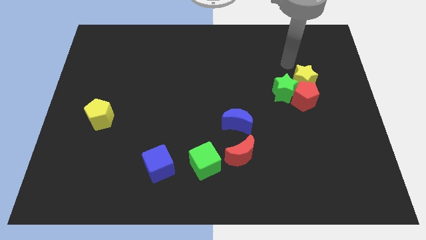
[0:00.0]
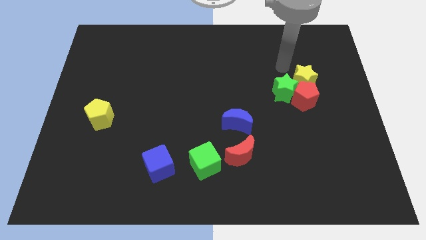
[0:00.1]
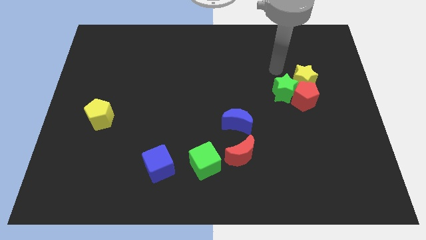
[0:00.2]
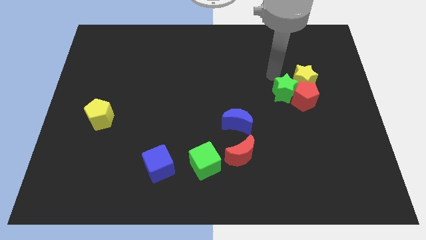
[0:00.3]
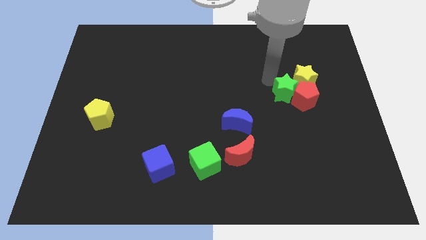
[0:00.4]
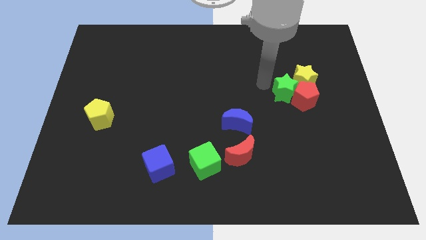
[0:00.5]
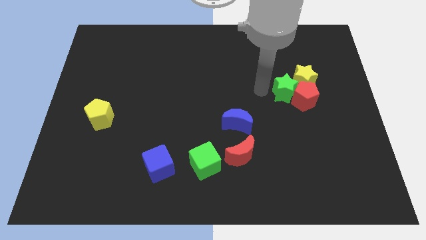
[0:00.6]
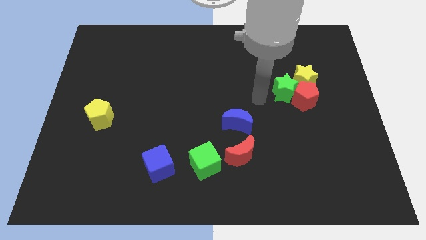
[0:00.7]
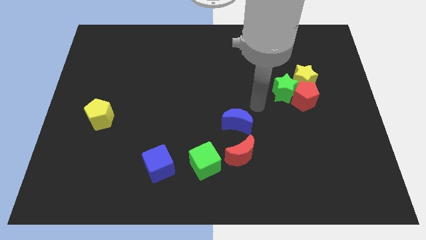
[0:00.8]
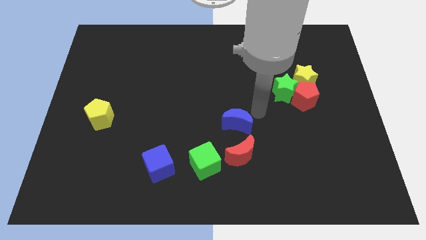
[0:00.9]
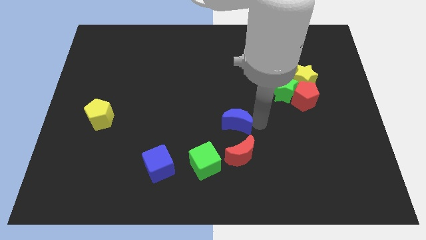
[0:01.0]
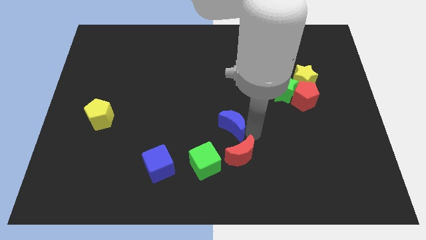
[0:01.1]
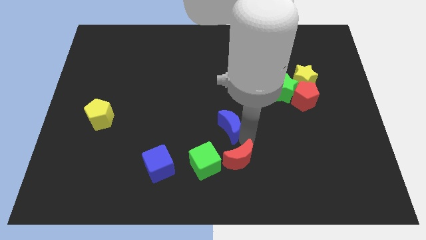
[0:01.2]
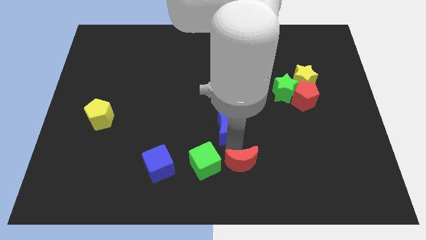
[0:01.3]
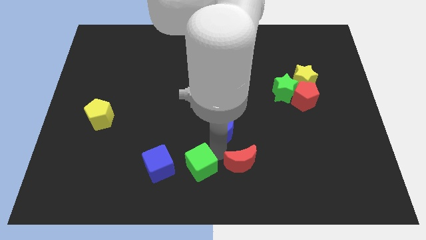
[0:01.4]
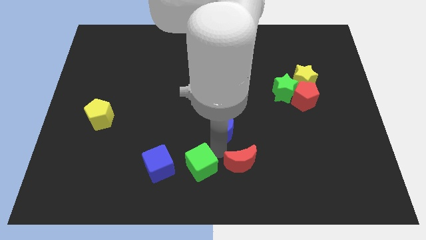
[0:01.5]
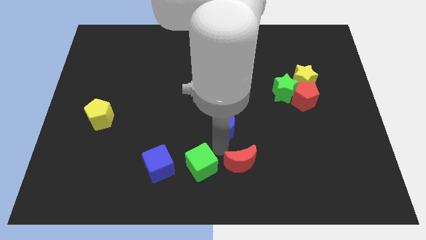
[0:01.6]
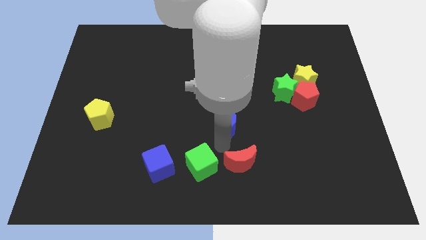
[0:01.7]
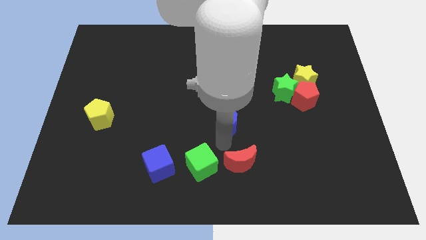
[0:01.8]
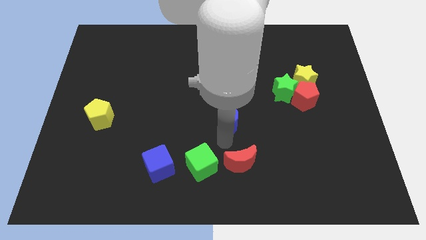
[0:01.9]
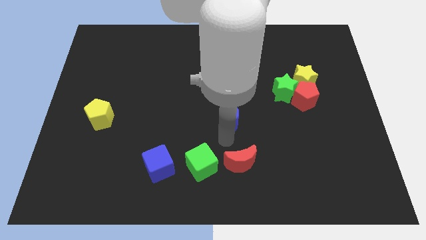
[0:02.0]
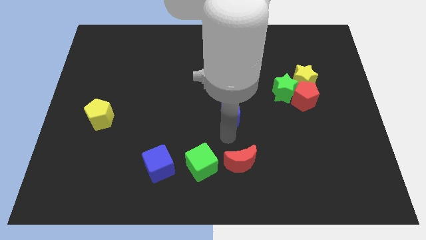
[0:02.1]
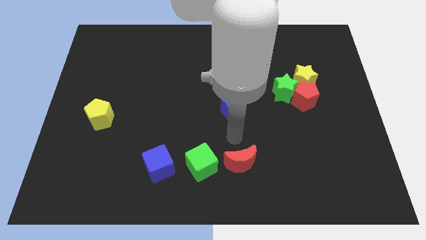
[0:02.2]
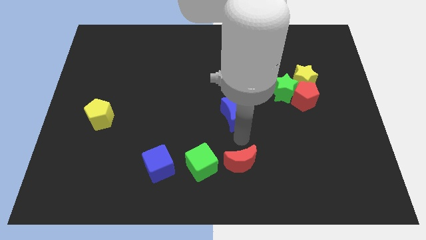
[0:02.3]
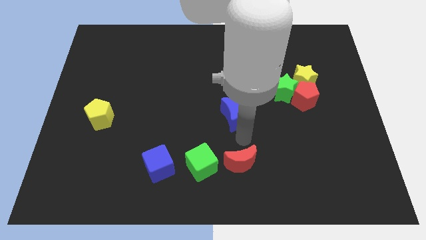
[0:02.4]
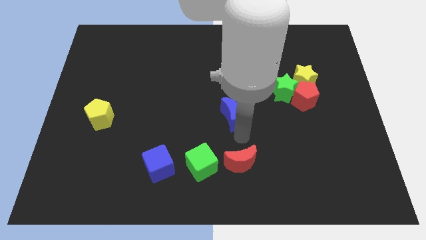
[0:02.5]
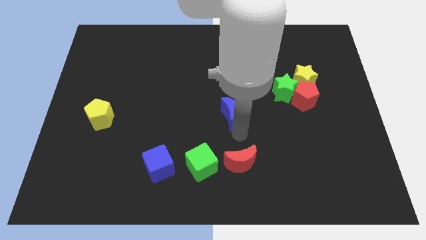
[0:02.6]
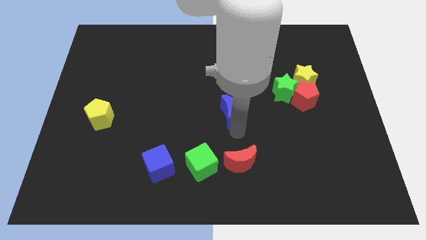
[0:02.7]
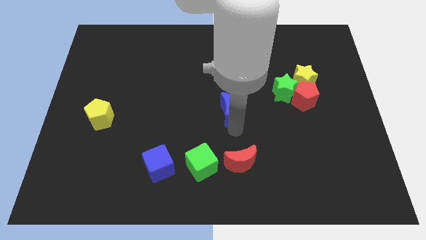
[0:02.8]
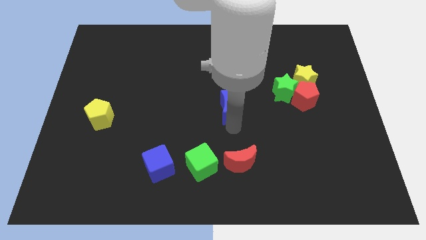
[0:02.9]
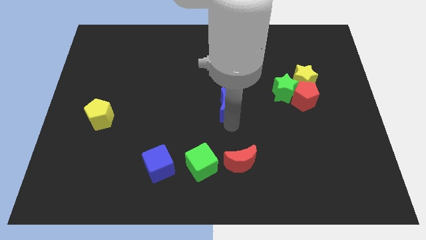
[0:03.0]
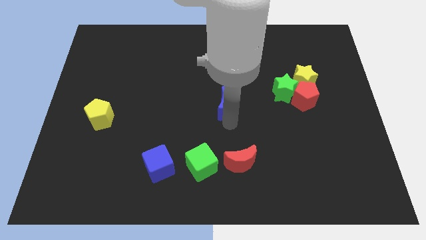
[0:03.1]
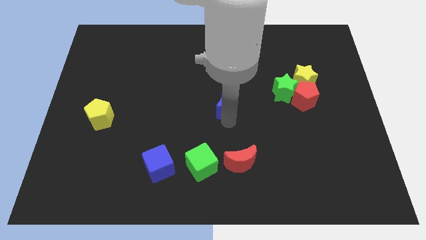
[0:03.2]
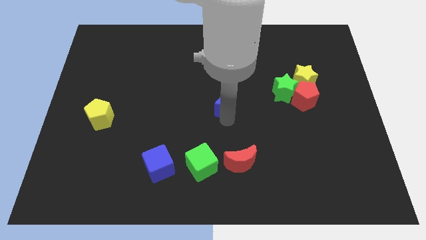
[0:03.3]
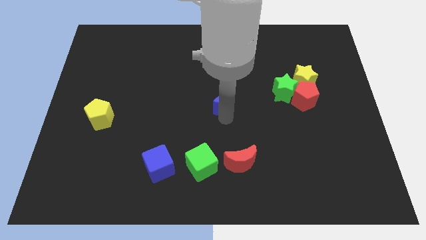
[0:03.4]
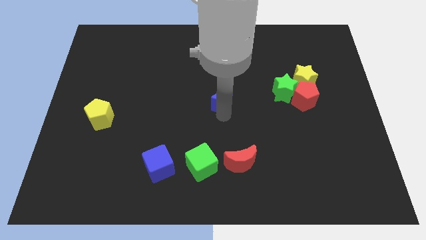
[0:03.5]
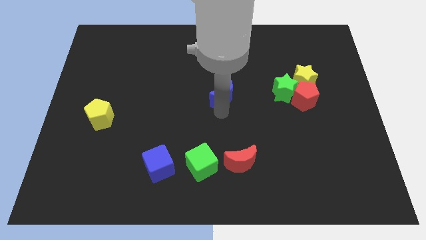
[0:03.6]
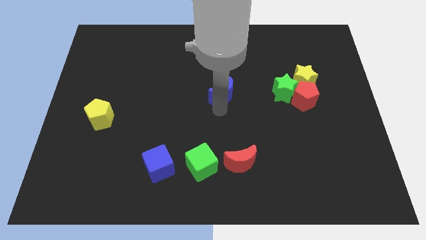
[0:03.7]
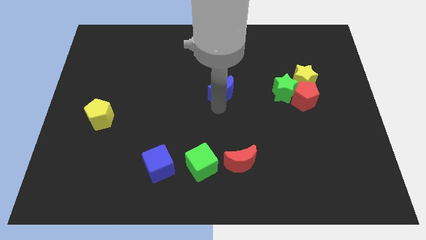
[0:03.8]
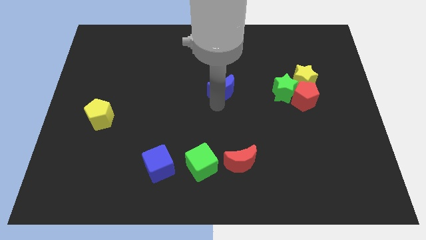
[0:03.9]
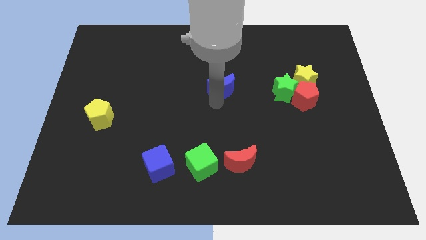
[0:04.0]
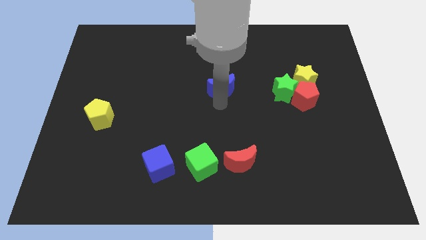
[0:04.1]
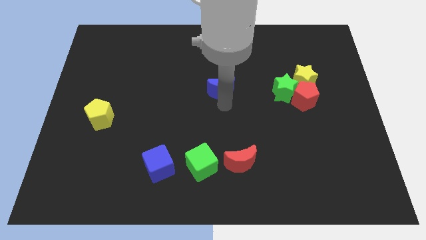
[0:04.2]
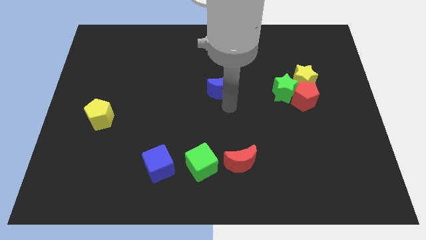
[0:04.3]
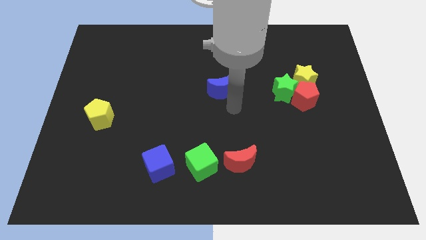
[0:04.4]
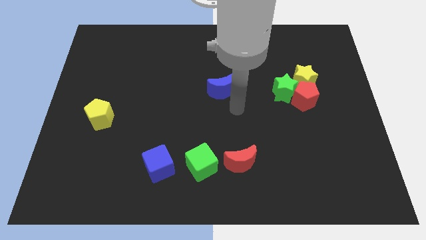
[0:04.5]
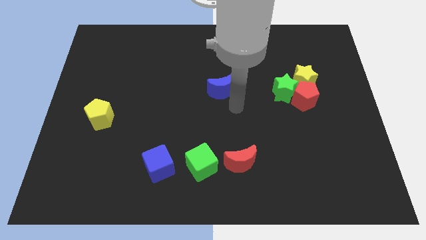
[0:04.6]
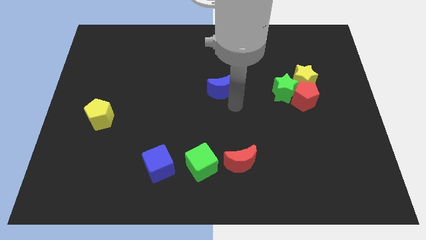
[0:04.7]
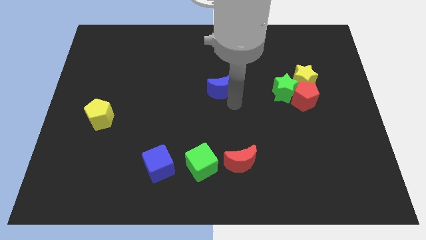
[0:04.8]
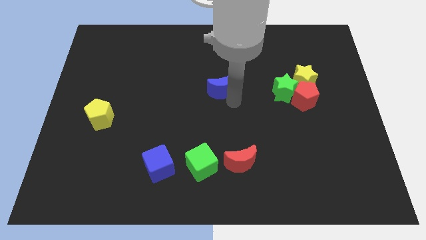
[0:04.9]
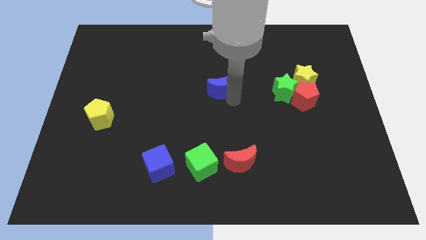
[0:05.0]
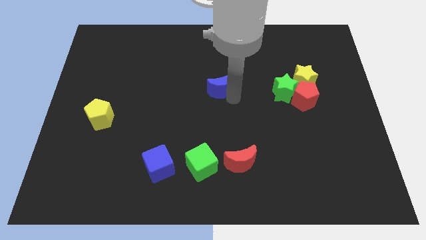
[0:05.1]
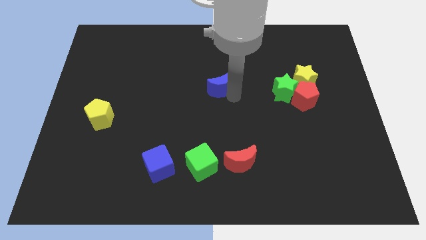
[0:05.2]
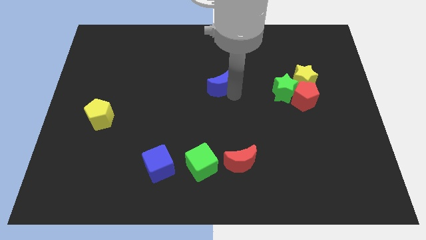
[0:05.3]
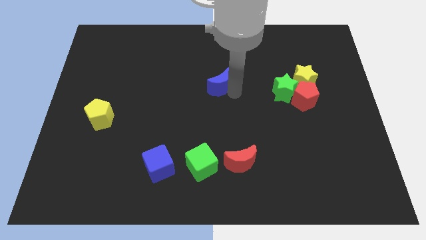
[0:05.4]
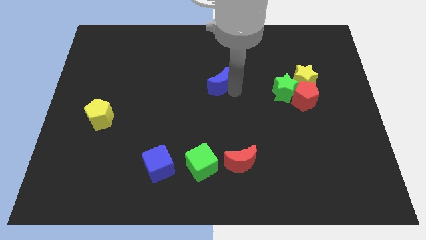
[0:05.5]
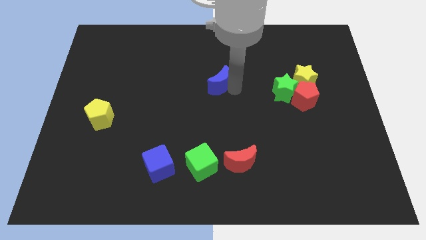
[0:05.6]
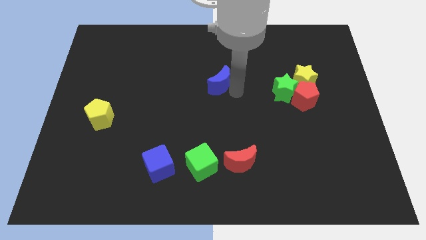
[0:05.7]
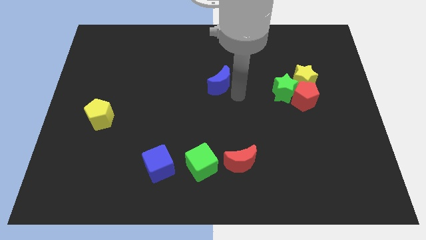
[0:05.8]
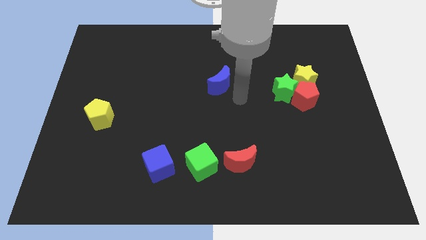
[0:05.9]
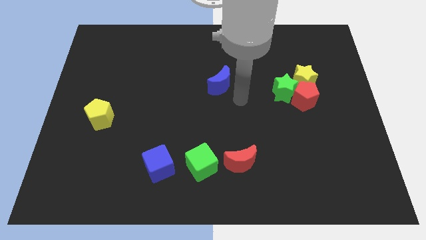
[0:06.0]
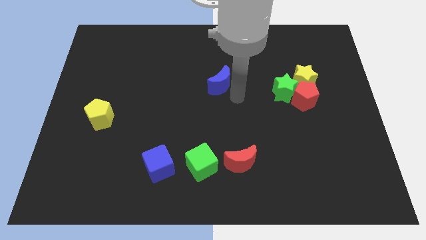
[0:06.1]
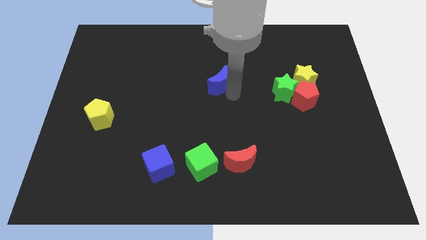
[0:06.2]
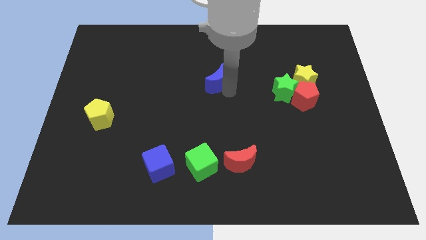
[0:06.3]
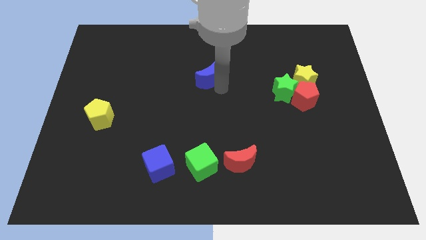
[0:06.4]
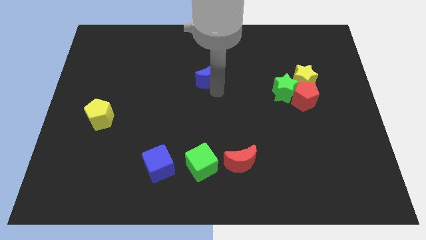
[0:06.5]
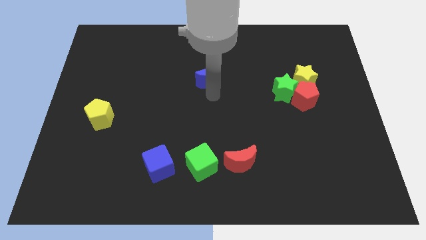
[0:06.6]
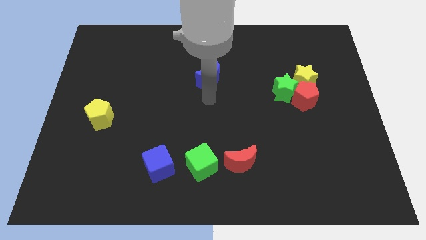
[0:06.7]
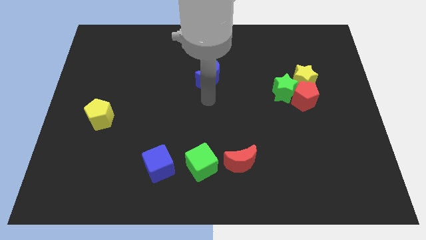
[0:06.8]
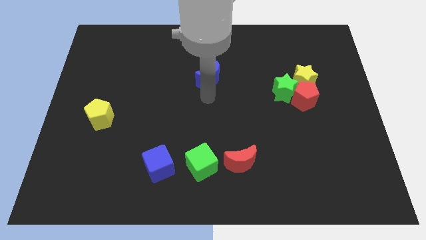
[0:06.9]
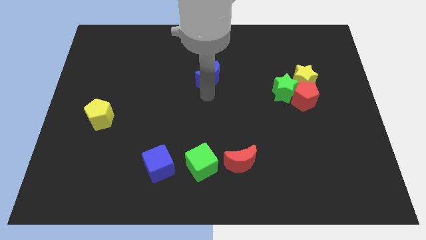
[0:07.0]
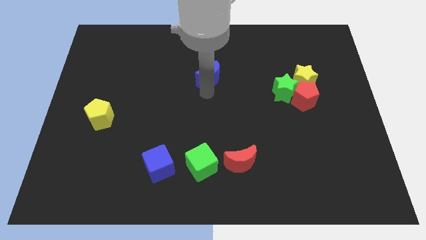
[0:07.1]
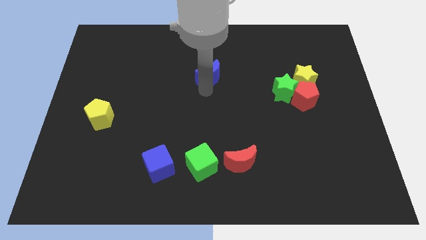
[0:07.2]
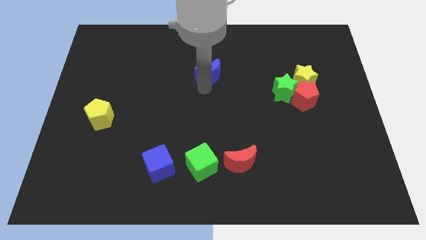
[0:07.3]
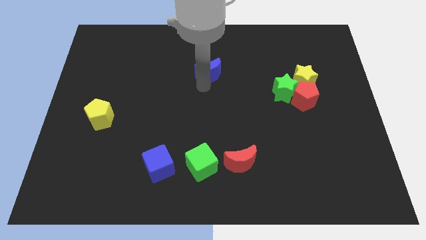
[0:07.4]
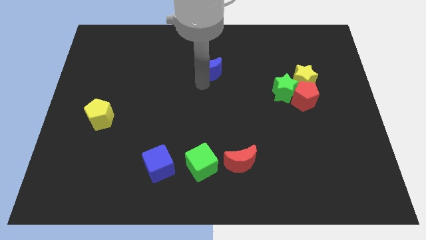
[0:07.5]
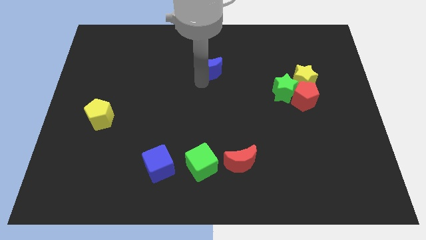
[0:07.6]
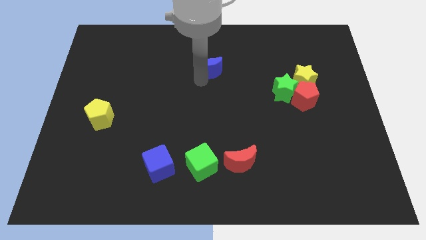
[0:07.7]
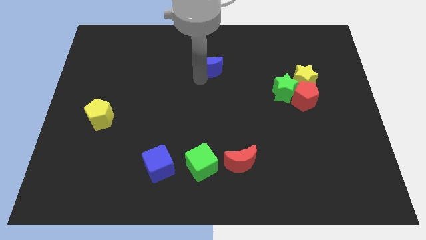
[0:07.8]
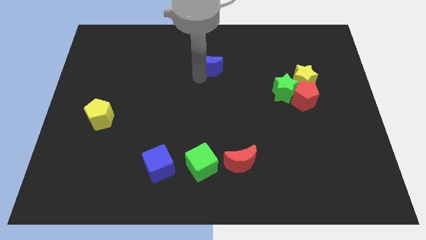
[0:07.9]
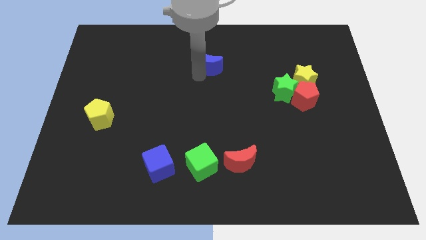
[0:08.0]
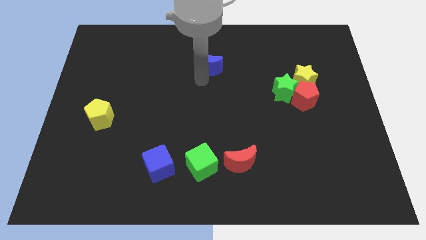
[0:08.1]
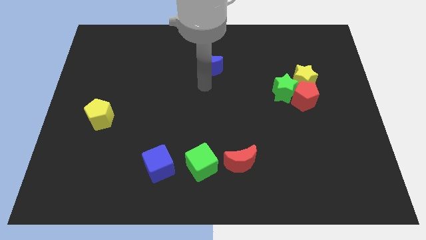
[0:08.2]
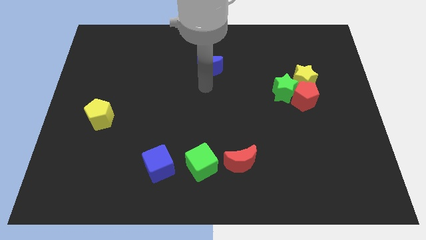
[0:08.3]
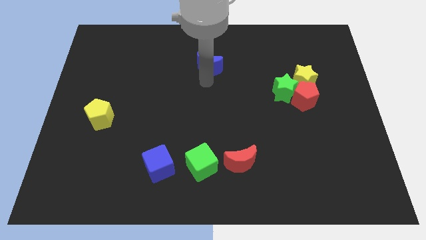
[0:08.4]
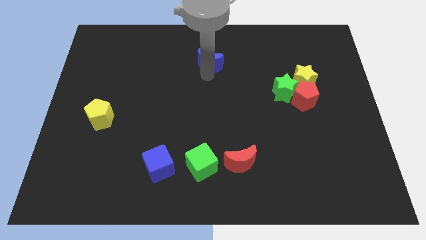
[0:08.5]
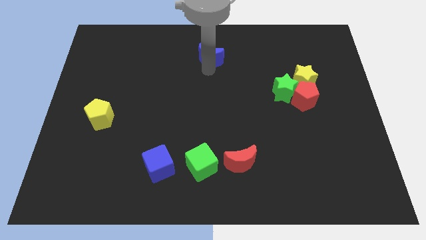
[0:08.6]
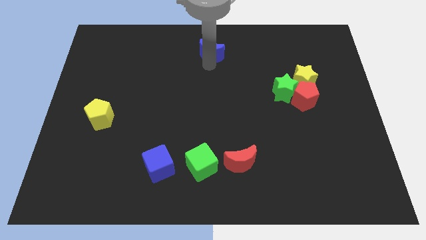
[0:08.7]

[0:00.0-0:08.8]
put the blue moon to the towards your base
